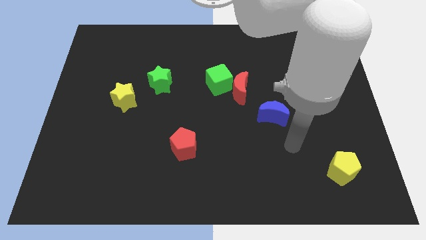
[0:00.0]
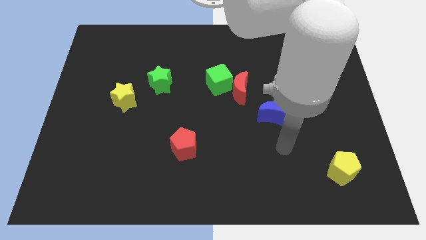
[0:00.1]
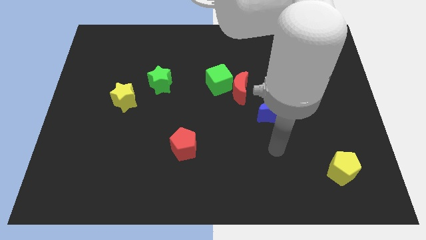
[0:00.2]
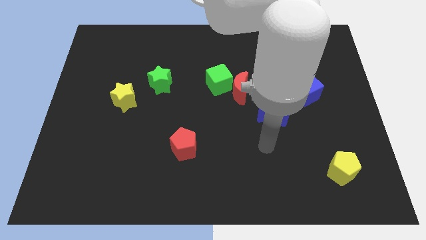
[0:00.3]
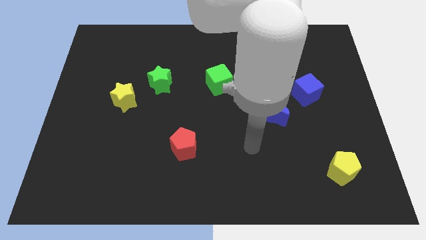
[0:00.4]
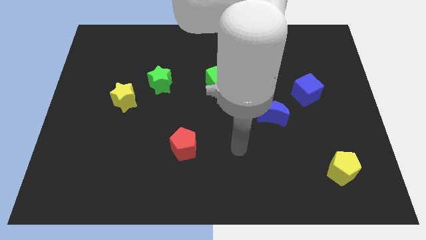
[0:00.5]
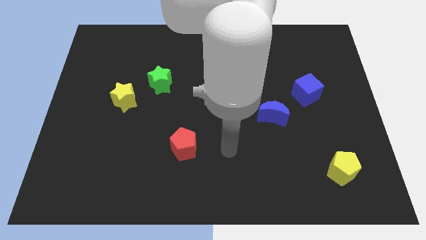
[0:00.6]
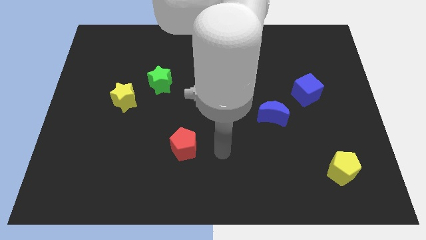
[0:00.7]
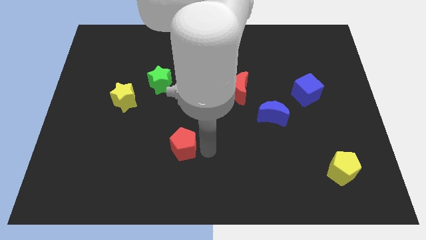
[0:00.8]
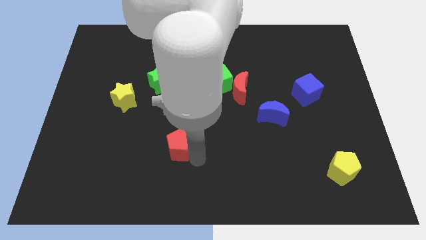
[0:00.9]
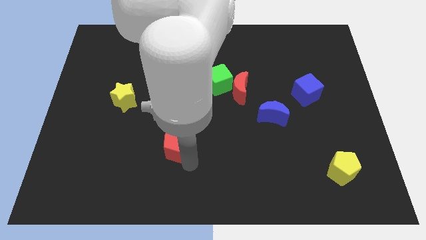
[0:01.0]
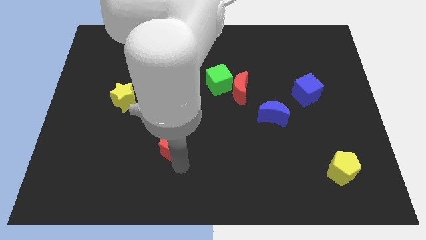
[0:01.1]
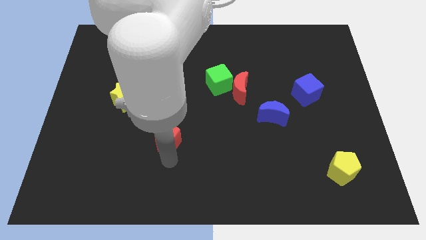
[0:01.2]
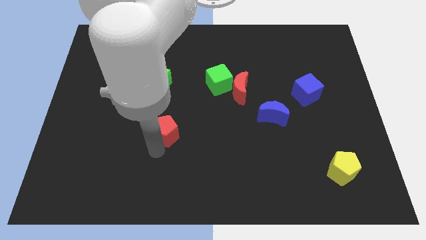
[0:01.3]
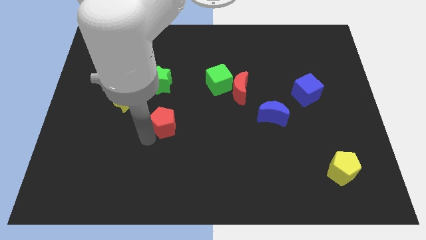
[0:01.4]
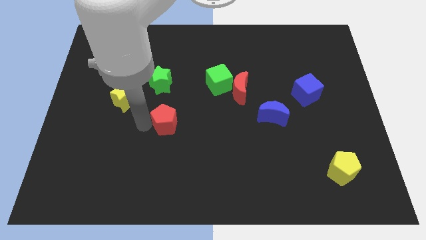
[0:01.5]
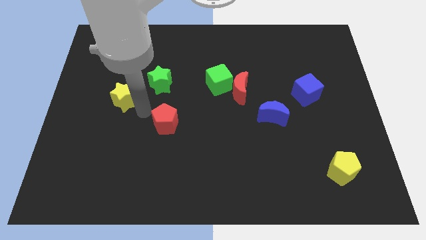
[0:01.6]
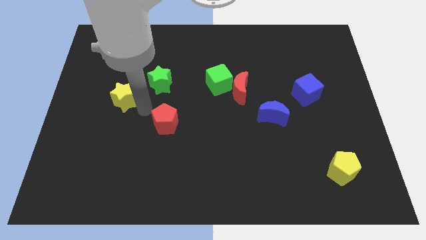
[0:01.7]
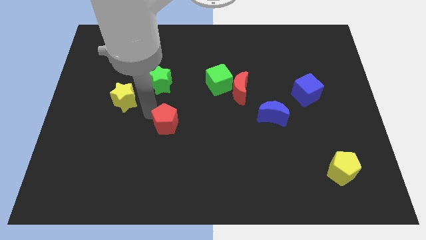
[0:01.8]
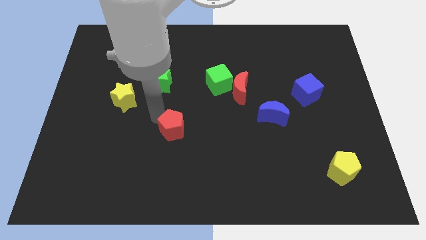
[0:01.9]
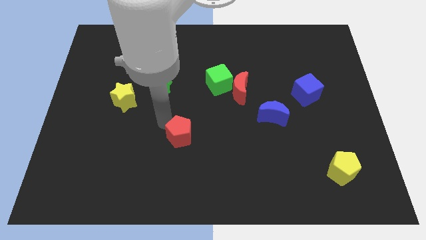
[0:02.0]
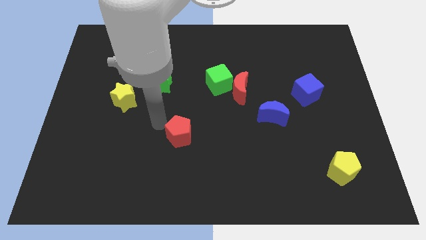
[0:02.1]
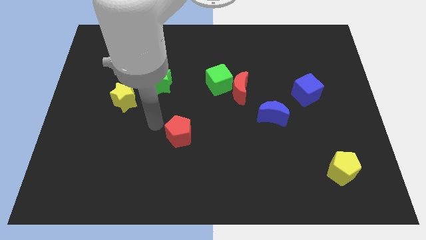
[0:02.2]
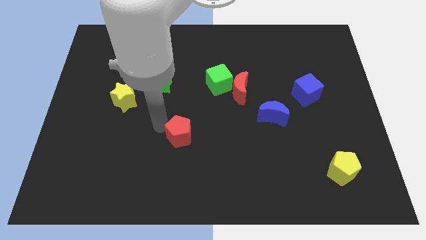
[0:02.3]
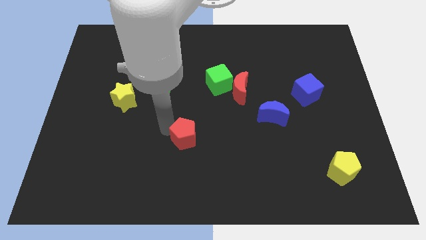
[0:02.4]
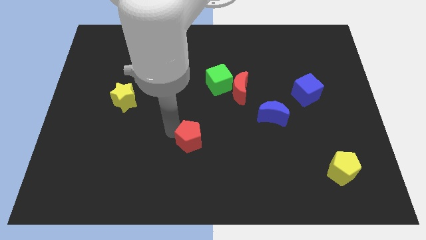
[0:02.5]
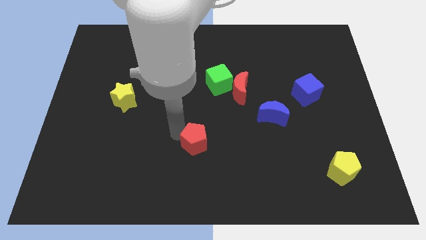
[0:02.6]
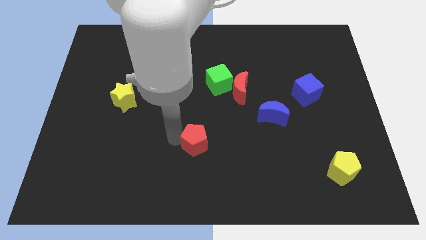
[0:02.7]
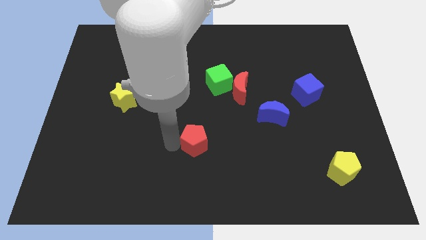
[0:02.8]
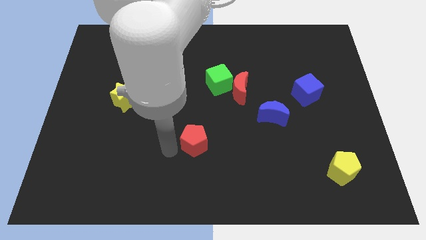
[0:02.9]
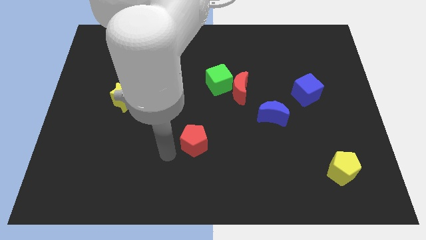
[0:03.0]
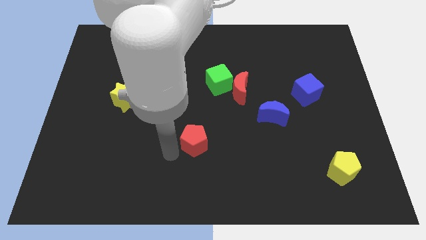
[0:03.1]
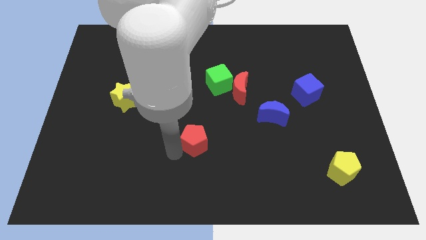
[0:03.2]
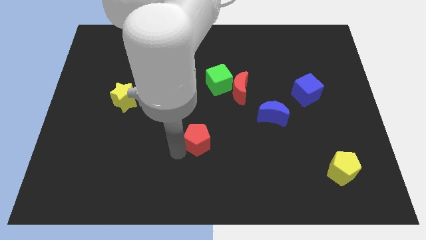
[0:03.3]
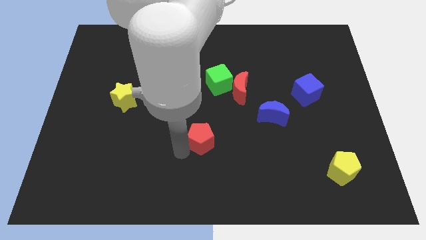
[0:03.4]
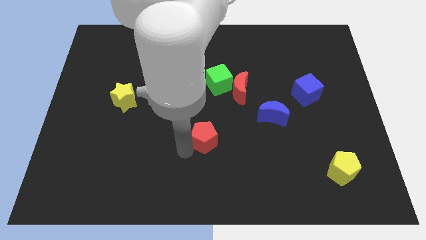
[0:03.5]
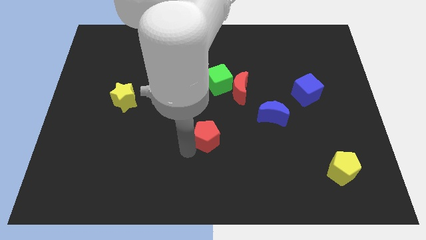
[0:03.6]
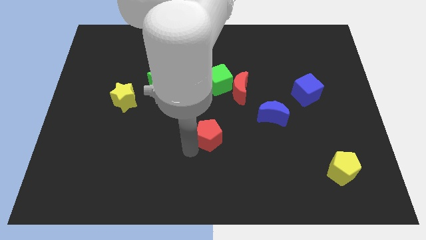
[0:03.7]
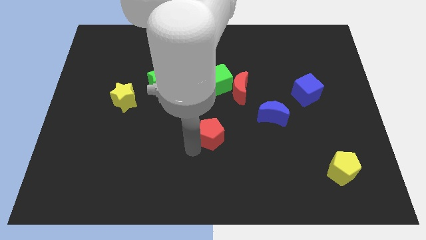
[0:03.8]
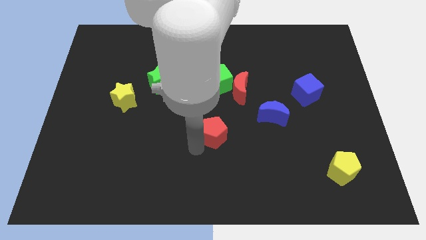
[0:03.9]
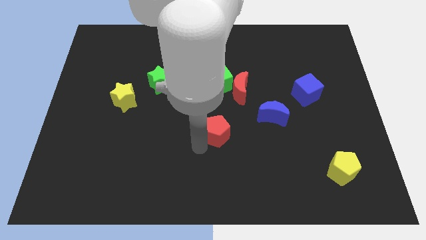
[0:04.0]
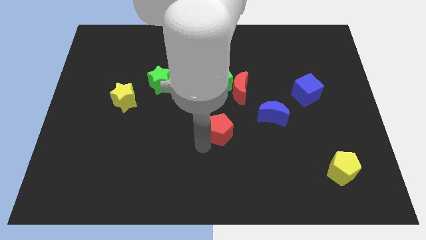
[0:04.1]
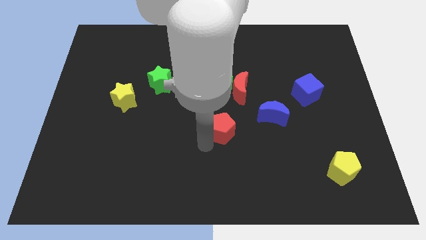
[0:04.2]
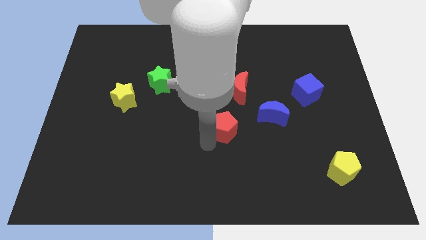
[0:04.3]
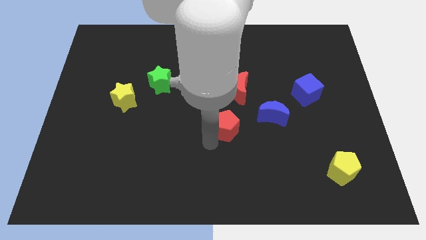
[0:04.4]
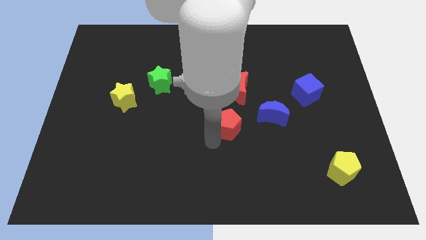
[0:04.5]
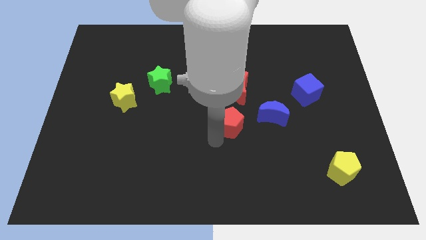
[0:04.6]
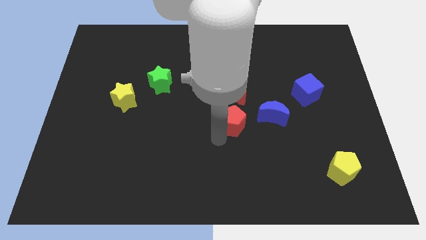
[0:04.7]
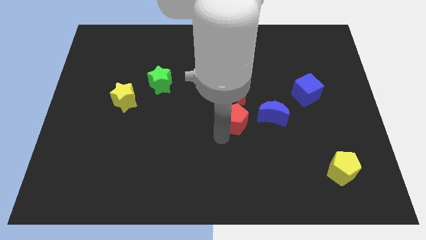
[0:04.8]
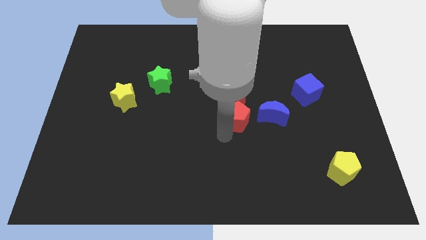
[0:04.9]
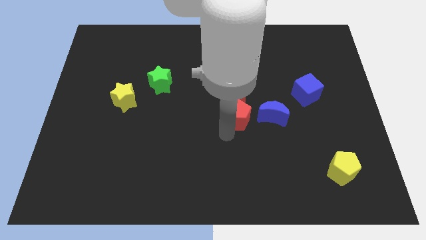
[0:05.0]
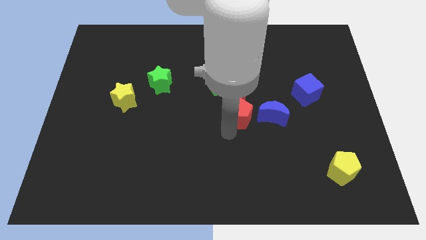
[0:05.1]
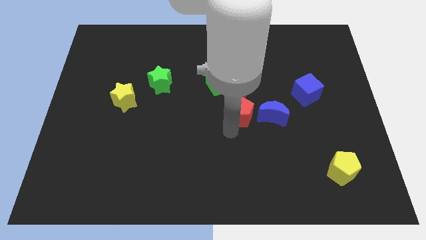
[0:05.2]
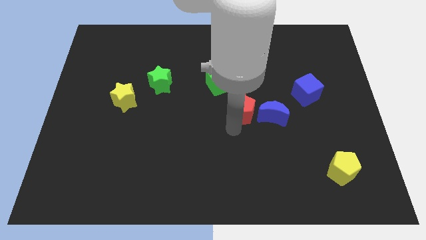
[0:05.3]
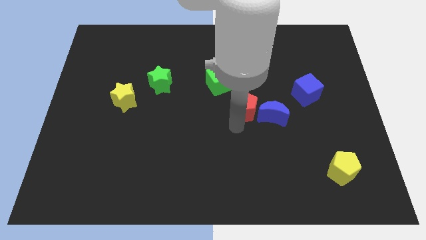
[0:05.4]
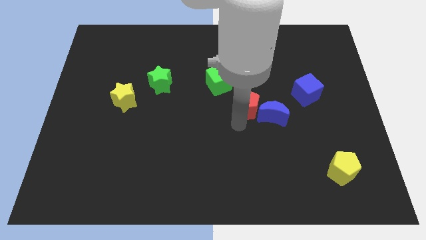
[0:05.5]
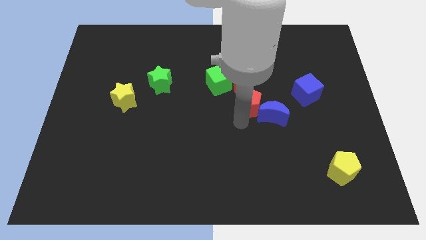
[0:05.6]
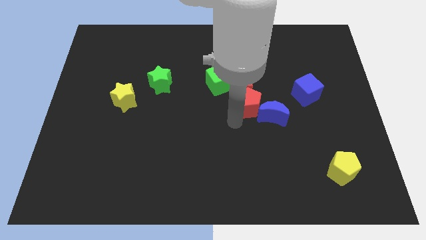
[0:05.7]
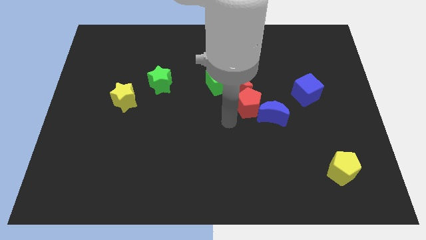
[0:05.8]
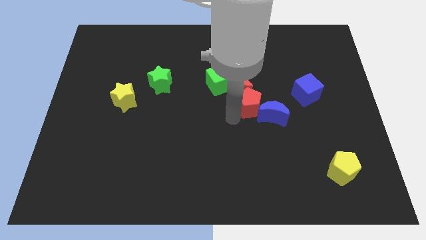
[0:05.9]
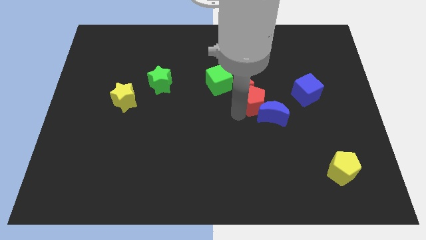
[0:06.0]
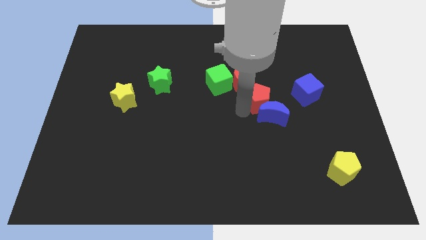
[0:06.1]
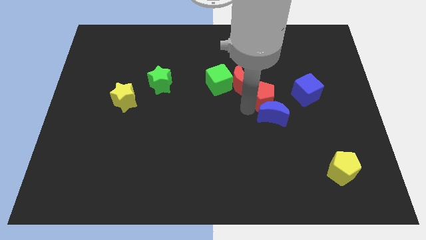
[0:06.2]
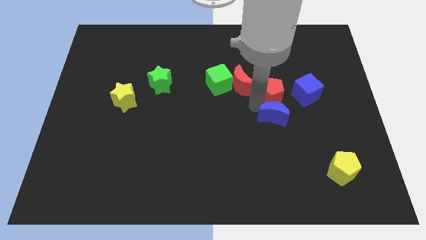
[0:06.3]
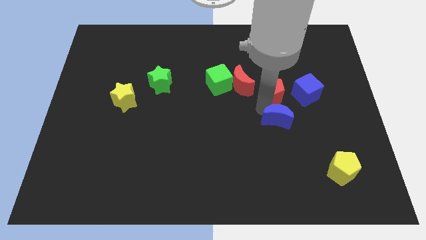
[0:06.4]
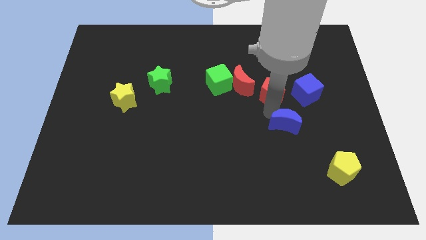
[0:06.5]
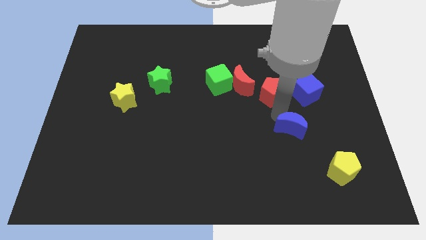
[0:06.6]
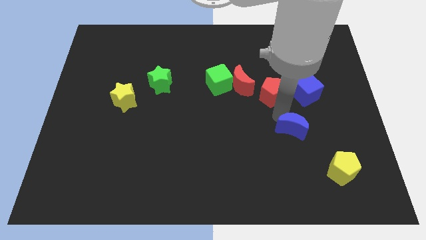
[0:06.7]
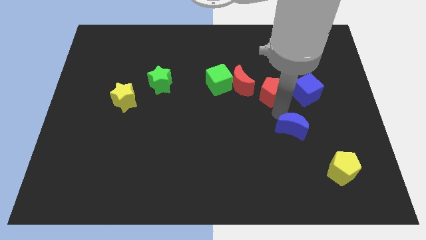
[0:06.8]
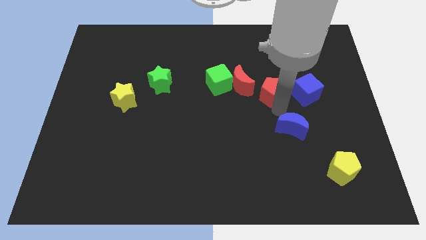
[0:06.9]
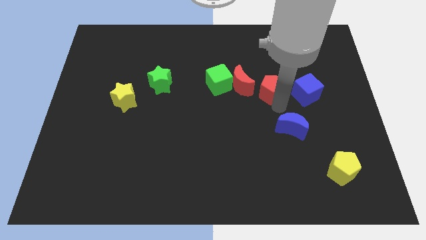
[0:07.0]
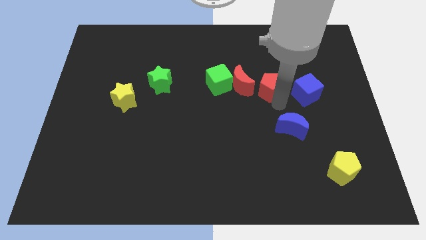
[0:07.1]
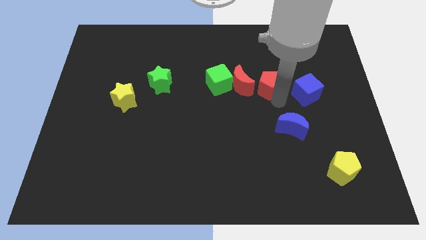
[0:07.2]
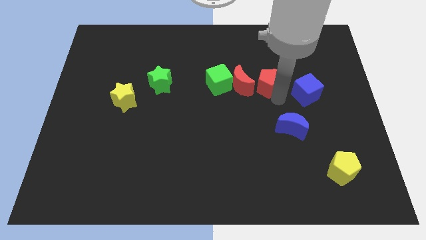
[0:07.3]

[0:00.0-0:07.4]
slide the red pentagon diagonally up and to the right of the red moon

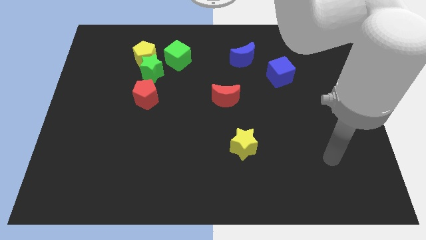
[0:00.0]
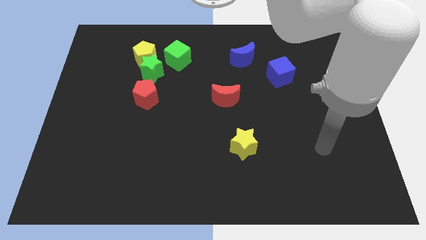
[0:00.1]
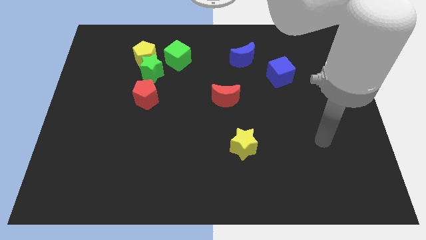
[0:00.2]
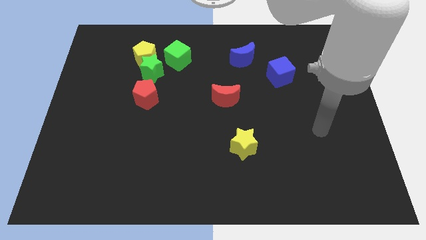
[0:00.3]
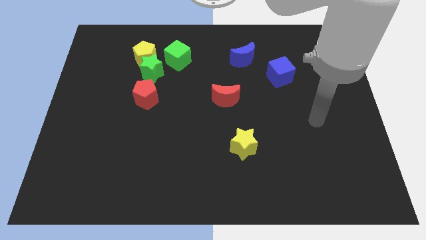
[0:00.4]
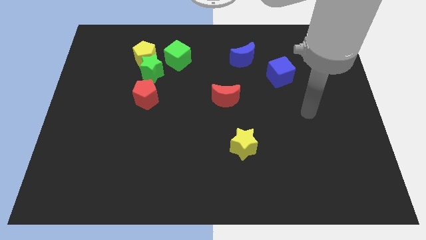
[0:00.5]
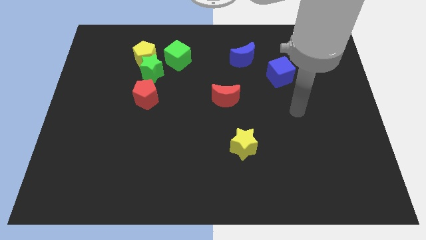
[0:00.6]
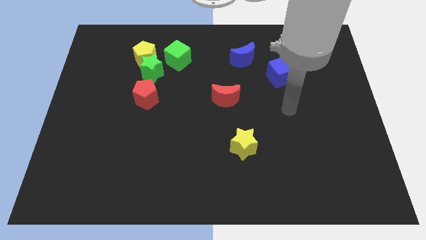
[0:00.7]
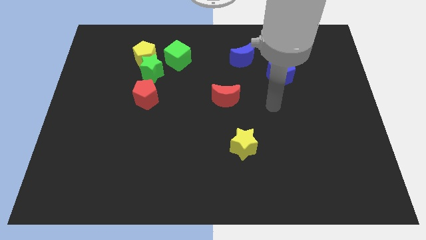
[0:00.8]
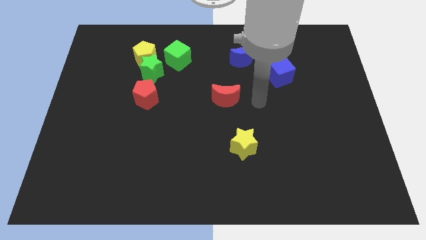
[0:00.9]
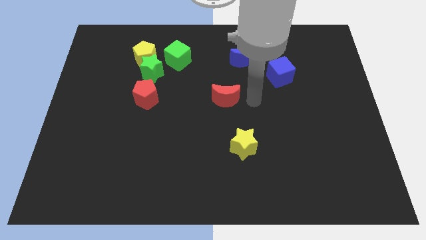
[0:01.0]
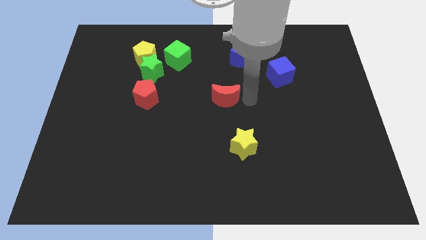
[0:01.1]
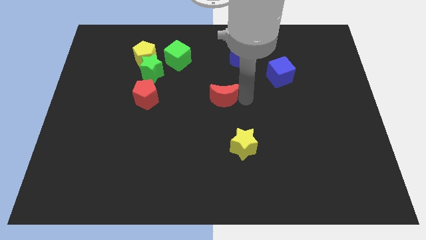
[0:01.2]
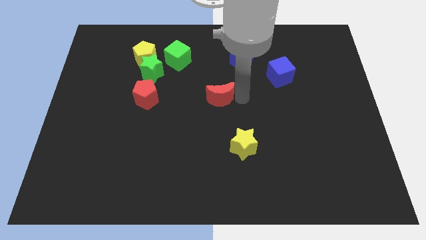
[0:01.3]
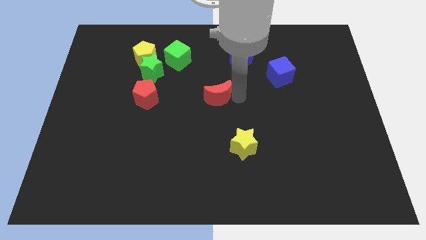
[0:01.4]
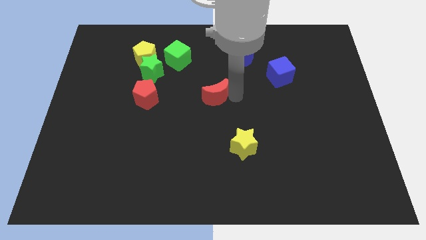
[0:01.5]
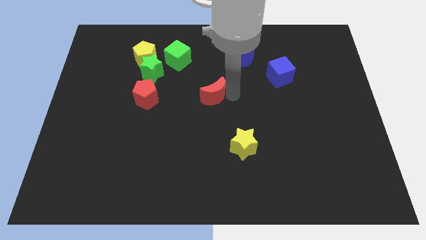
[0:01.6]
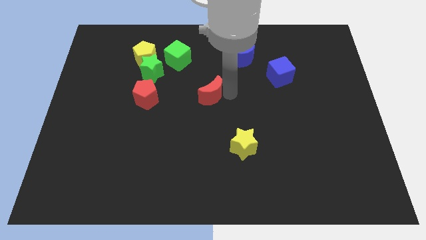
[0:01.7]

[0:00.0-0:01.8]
push the red moon just right of the red pentagon
